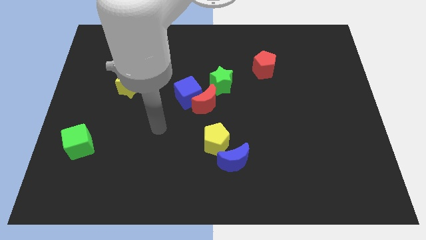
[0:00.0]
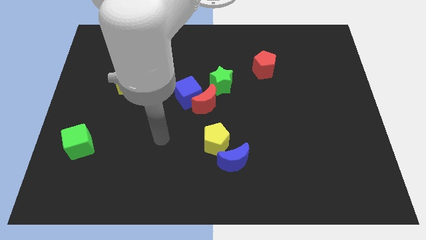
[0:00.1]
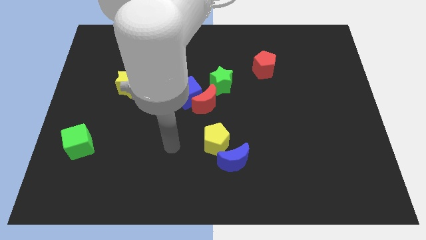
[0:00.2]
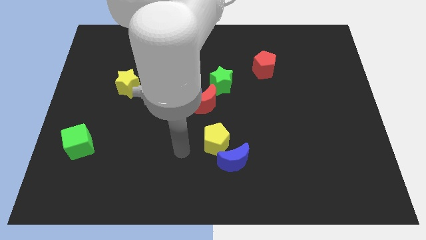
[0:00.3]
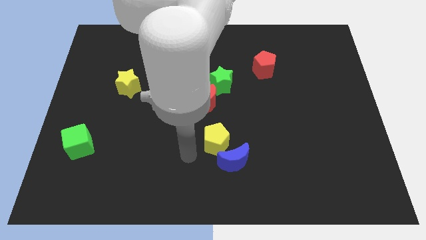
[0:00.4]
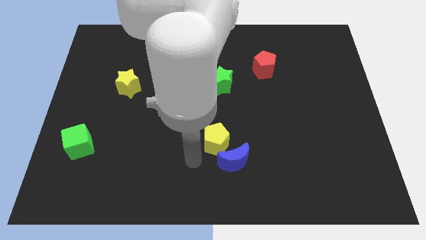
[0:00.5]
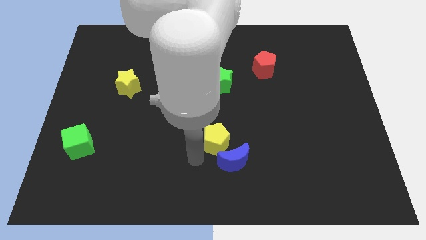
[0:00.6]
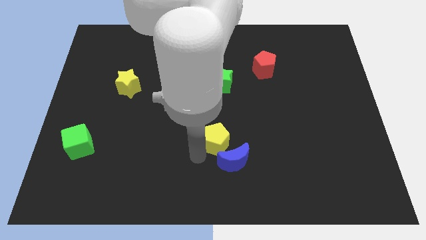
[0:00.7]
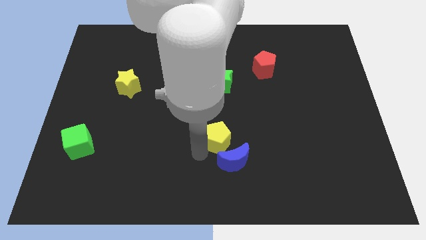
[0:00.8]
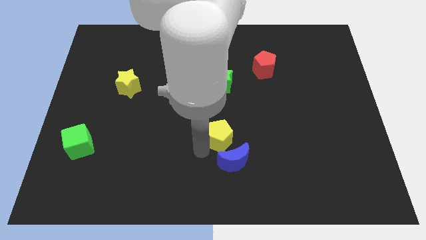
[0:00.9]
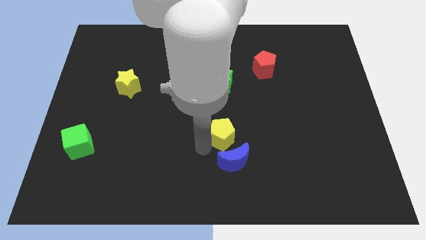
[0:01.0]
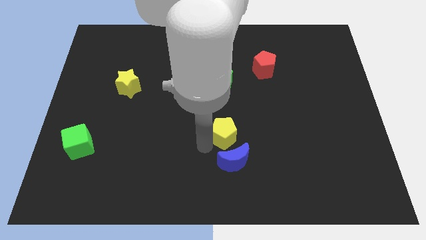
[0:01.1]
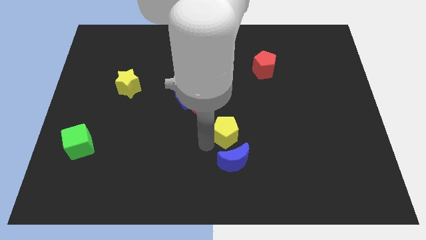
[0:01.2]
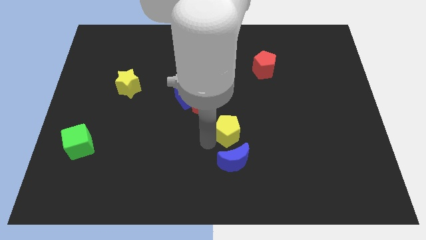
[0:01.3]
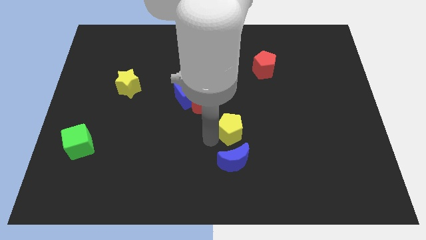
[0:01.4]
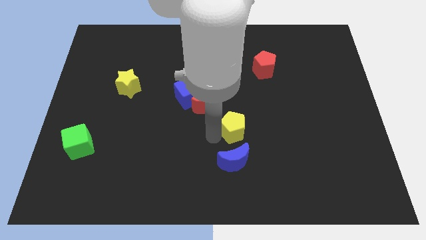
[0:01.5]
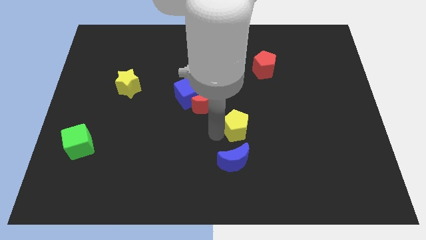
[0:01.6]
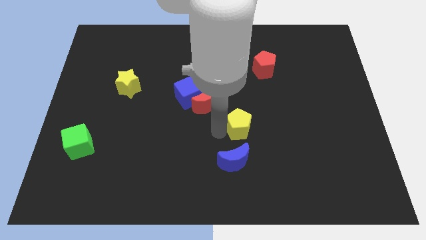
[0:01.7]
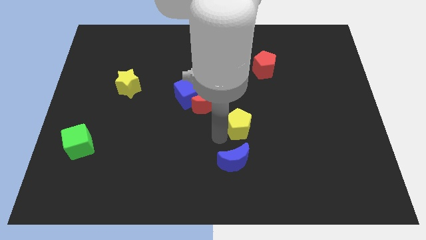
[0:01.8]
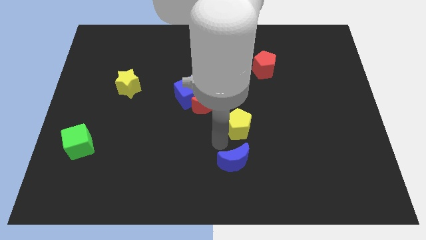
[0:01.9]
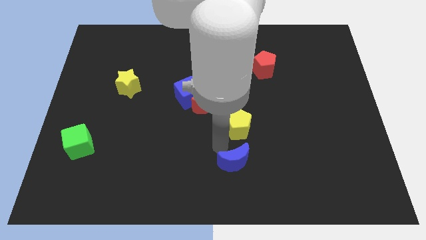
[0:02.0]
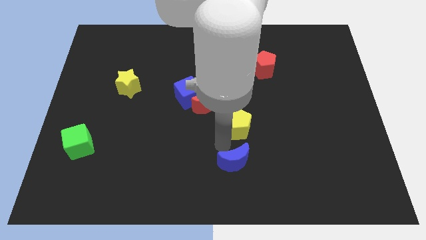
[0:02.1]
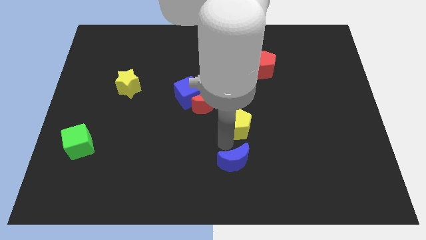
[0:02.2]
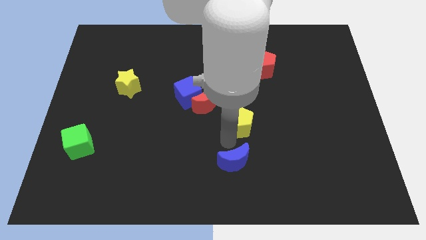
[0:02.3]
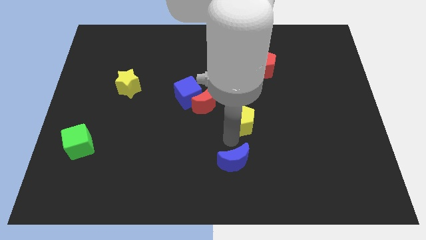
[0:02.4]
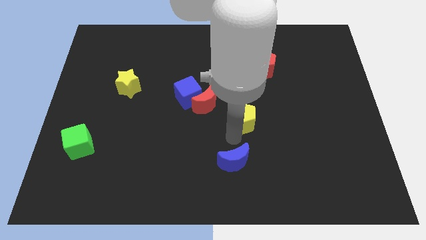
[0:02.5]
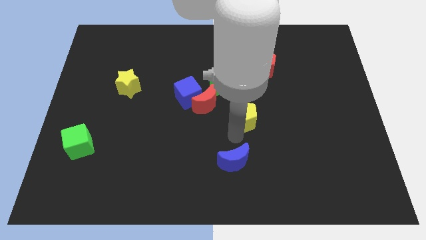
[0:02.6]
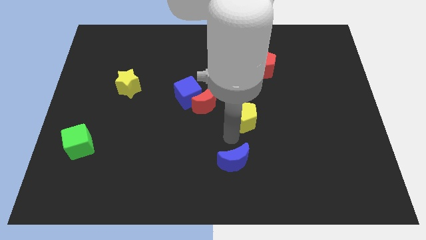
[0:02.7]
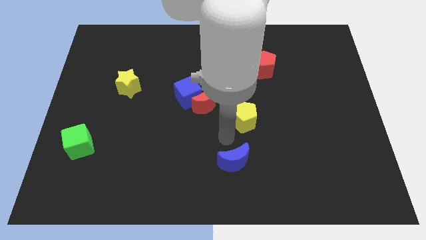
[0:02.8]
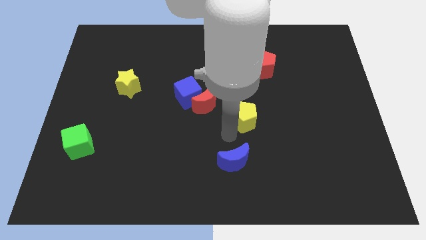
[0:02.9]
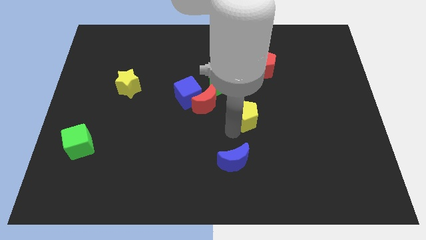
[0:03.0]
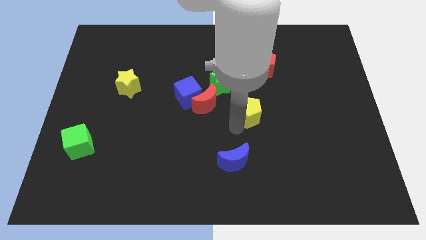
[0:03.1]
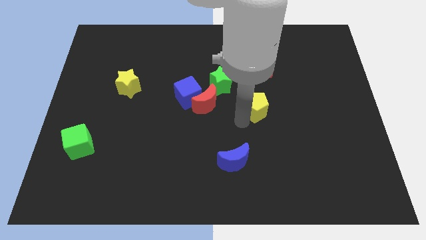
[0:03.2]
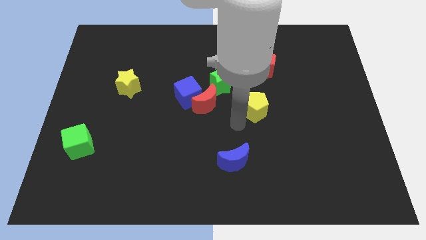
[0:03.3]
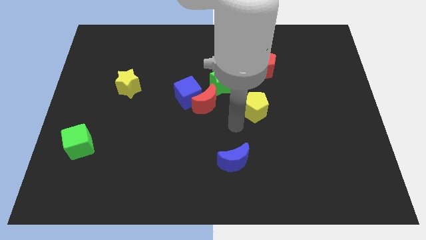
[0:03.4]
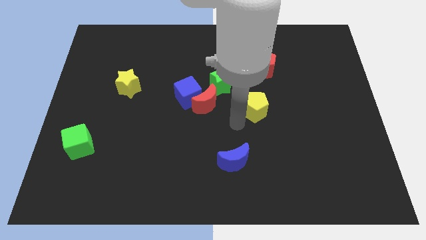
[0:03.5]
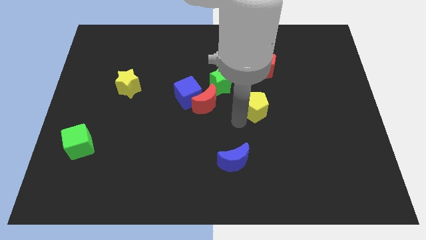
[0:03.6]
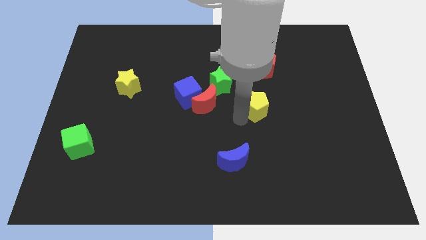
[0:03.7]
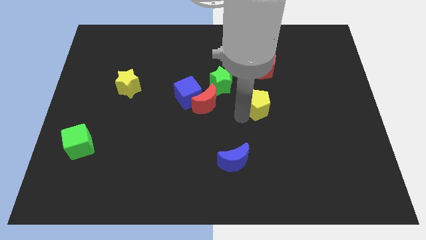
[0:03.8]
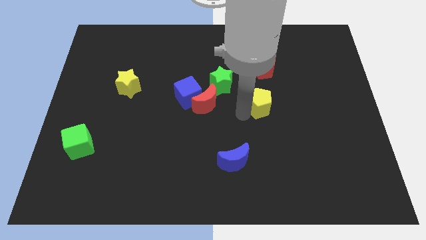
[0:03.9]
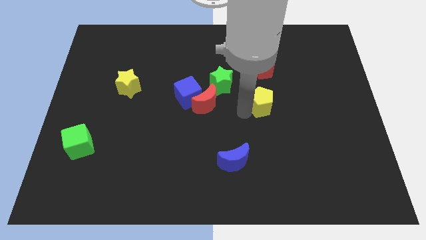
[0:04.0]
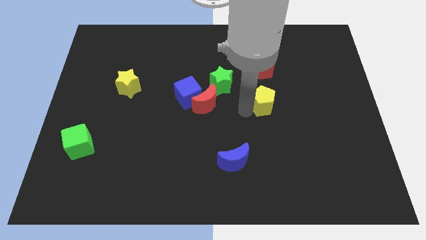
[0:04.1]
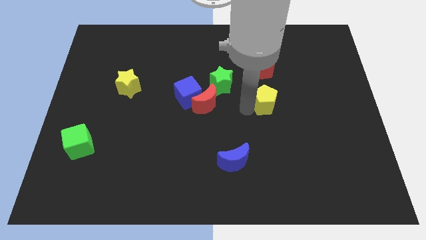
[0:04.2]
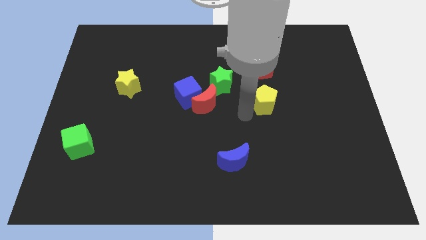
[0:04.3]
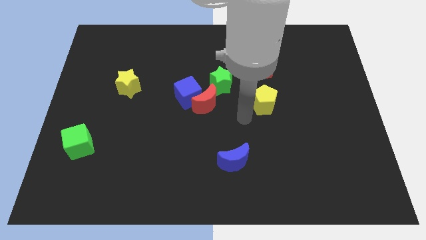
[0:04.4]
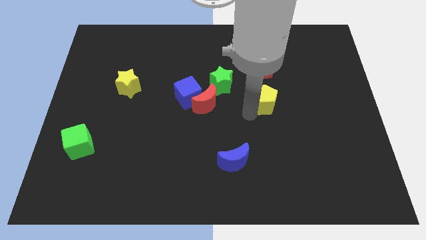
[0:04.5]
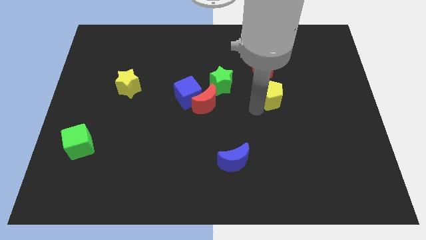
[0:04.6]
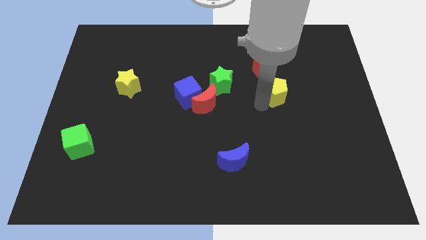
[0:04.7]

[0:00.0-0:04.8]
slide the yellow pentagon up and then right

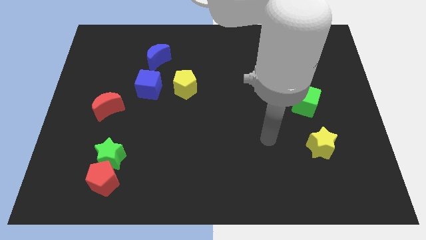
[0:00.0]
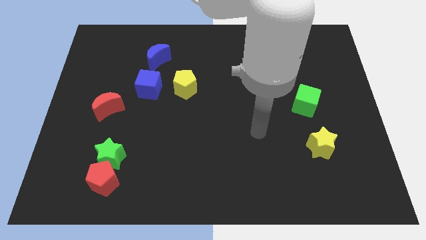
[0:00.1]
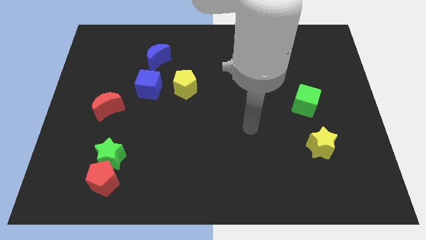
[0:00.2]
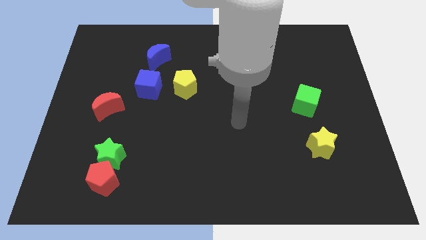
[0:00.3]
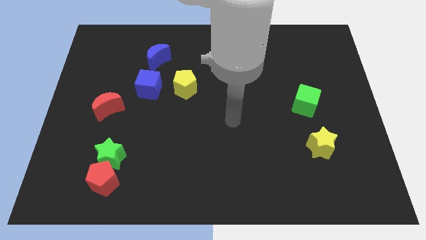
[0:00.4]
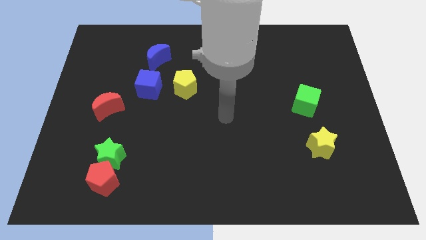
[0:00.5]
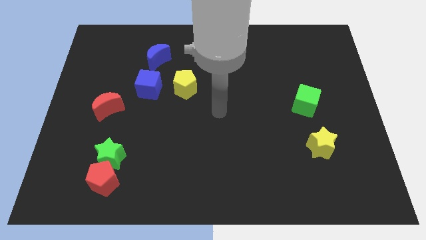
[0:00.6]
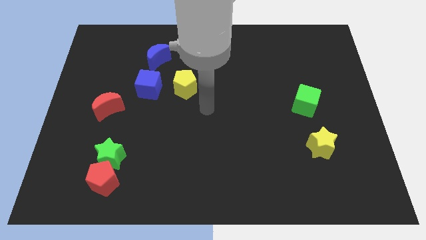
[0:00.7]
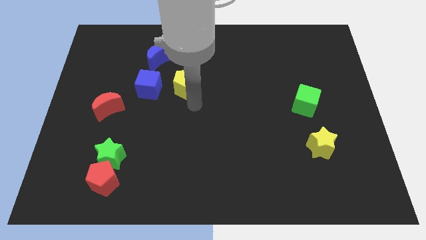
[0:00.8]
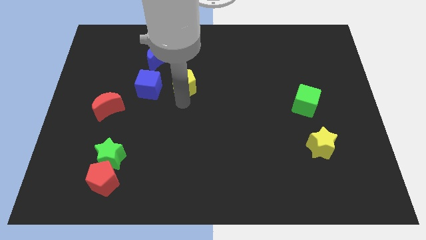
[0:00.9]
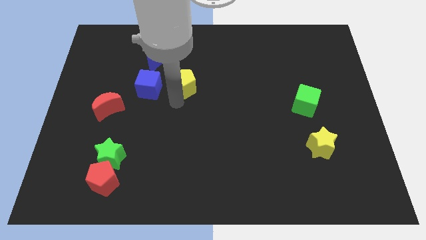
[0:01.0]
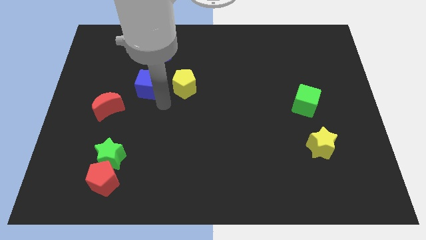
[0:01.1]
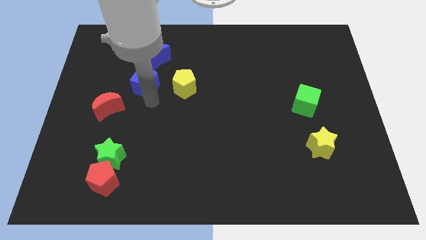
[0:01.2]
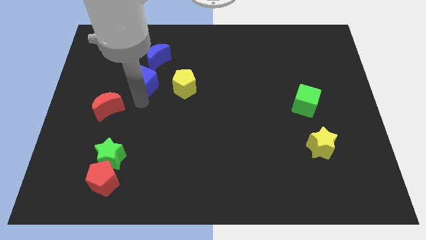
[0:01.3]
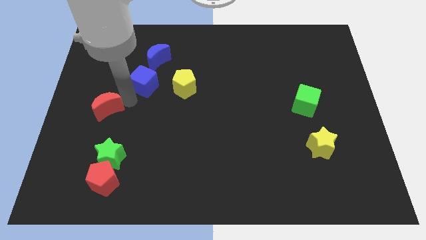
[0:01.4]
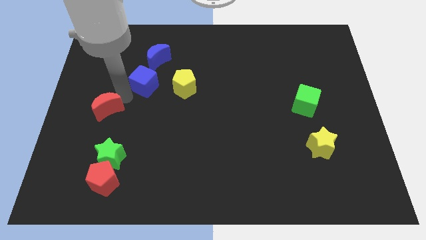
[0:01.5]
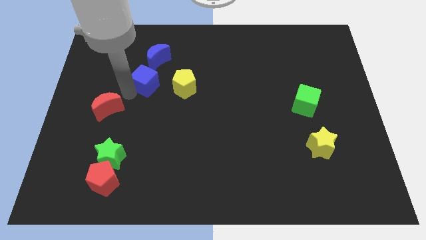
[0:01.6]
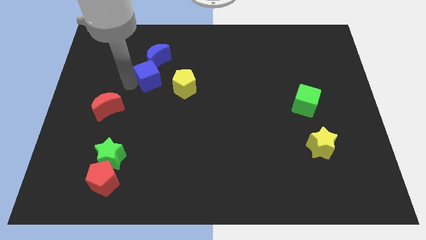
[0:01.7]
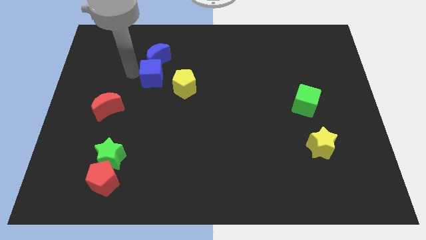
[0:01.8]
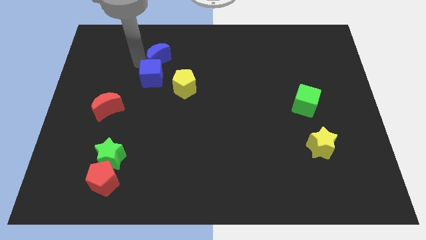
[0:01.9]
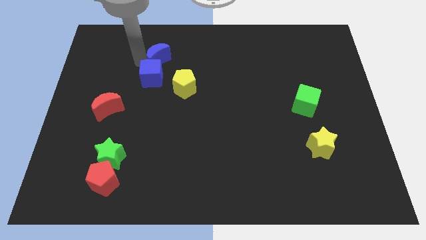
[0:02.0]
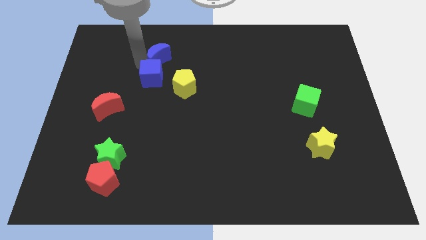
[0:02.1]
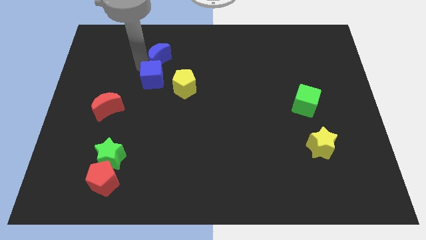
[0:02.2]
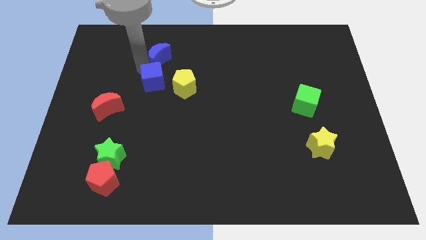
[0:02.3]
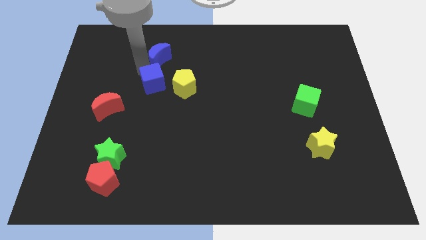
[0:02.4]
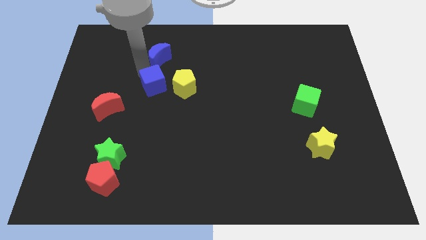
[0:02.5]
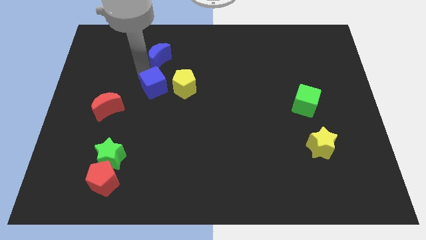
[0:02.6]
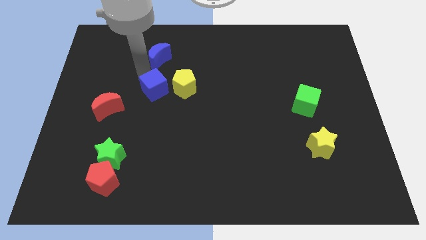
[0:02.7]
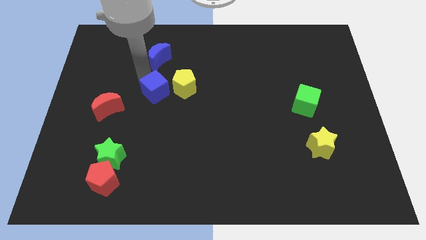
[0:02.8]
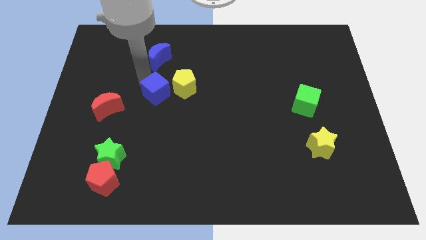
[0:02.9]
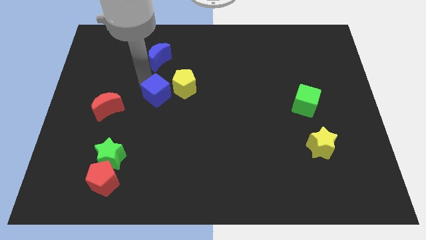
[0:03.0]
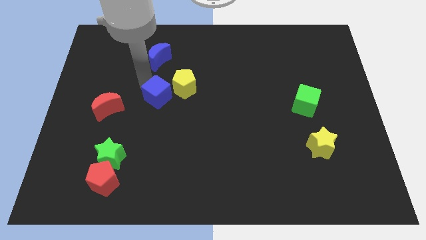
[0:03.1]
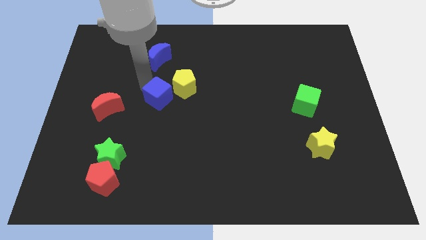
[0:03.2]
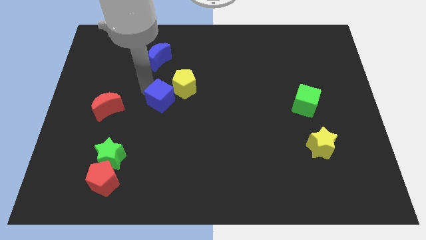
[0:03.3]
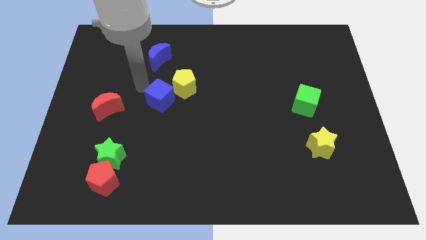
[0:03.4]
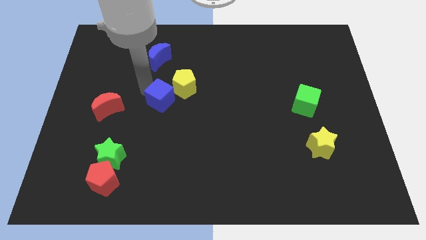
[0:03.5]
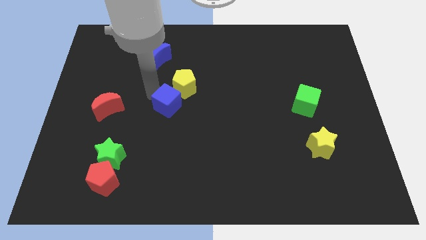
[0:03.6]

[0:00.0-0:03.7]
slightly move the blue cube downwards and then right
